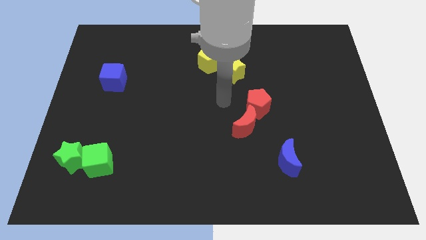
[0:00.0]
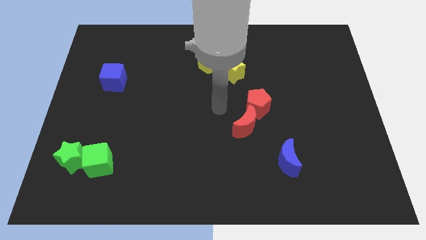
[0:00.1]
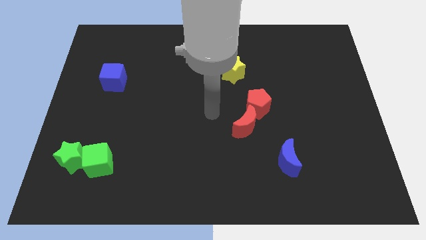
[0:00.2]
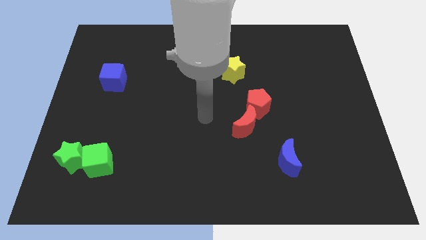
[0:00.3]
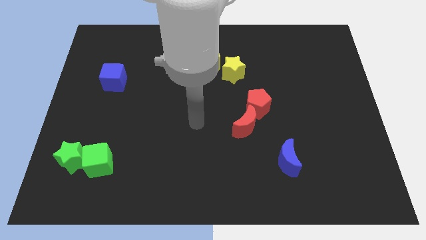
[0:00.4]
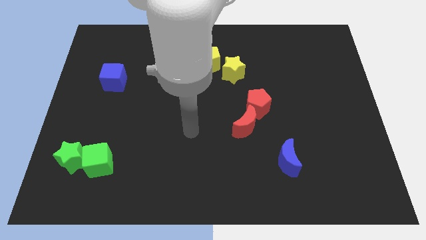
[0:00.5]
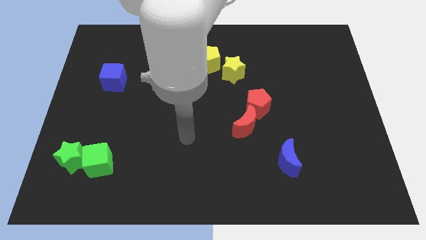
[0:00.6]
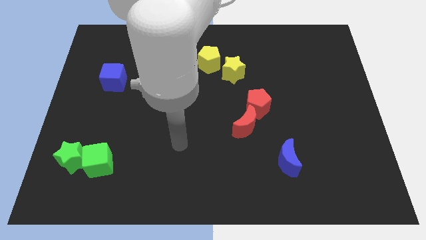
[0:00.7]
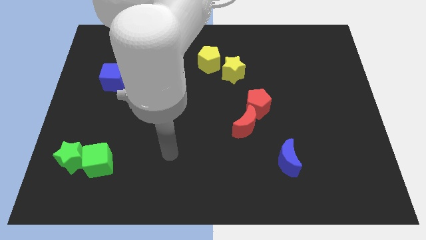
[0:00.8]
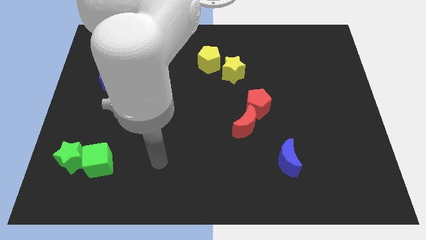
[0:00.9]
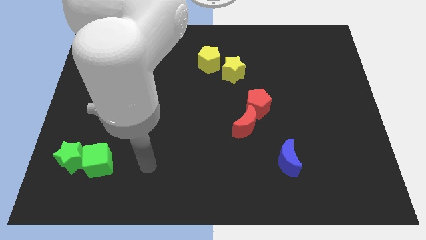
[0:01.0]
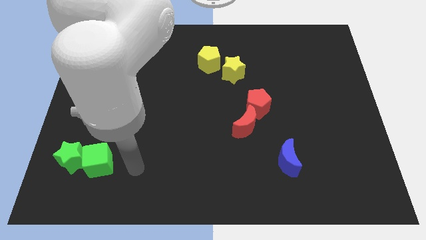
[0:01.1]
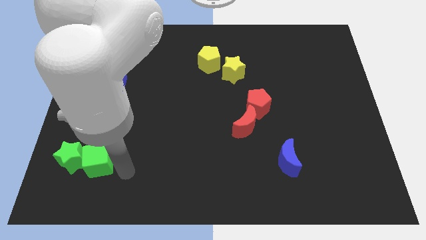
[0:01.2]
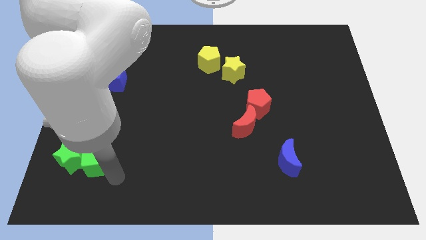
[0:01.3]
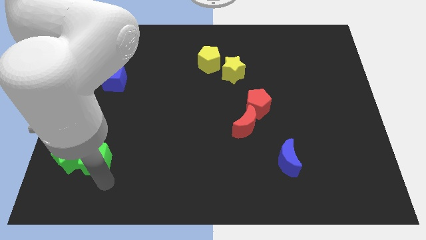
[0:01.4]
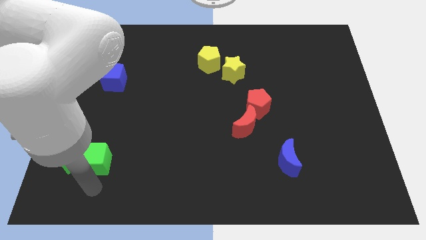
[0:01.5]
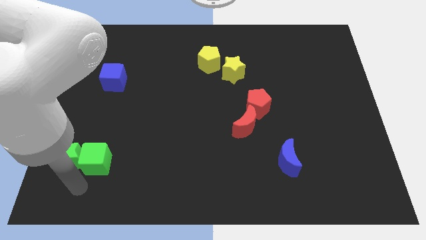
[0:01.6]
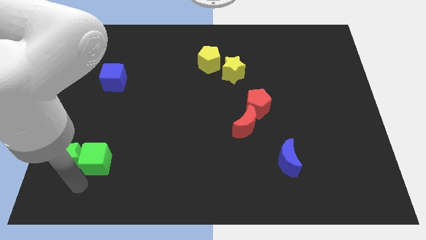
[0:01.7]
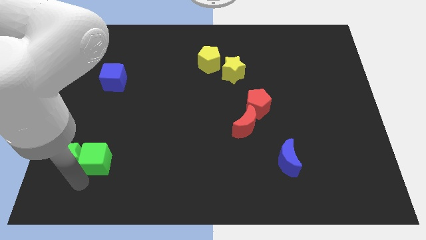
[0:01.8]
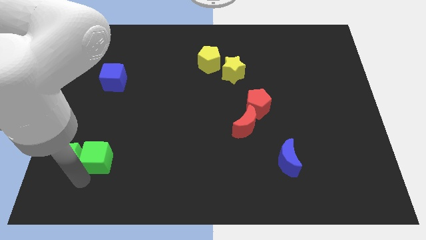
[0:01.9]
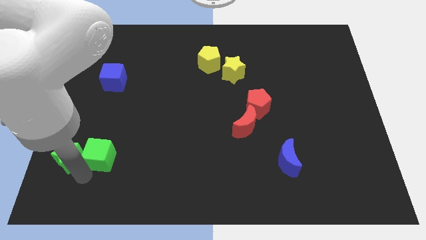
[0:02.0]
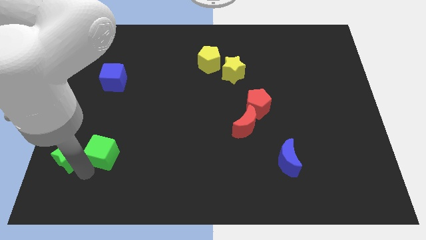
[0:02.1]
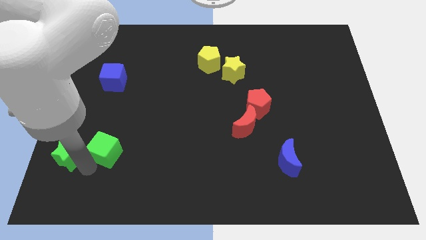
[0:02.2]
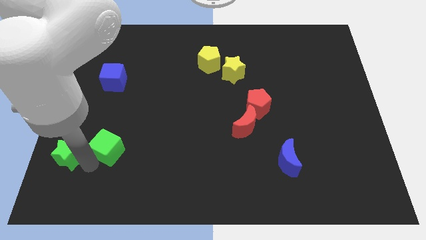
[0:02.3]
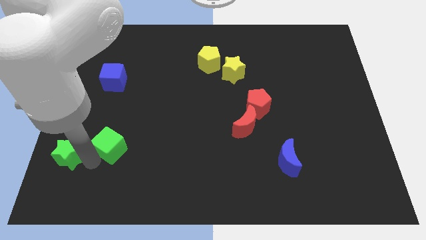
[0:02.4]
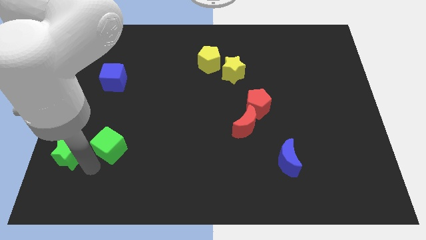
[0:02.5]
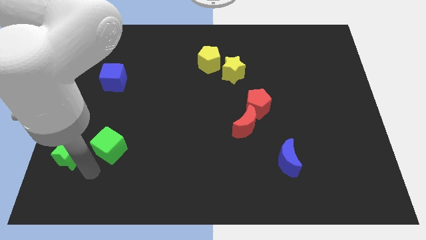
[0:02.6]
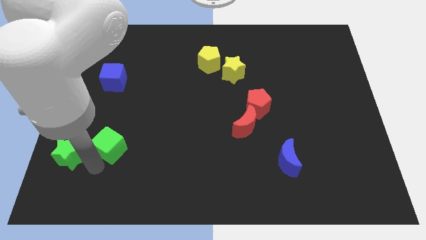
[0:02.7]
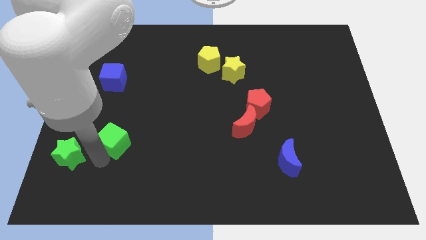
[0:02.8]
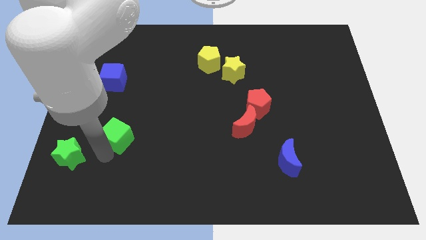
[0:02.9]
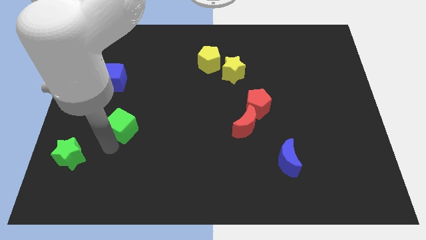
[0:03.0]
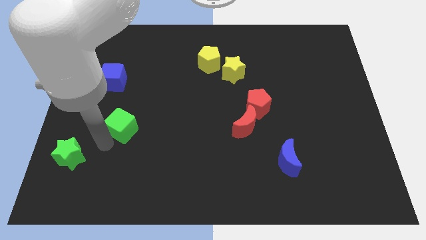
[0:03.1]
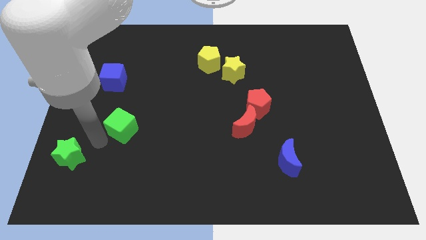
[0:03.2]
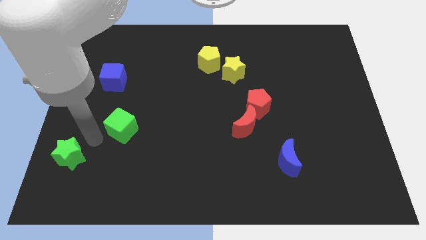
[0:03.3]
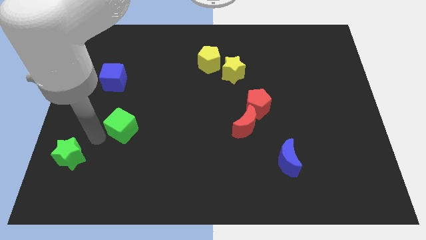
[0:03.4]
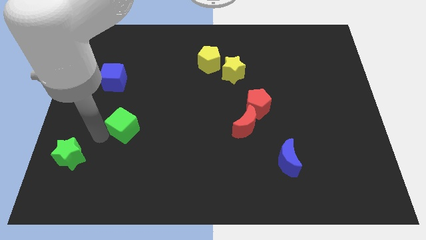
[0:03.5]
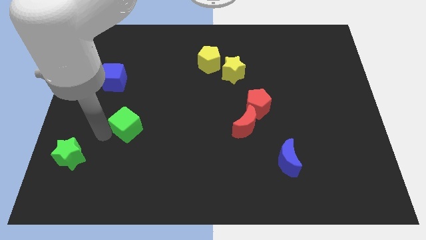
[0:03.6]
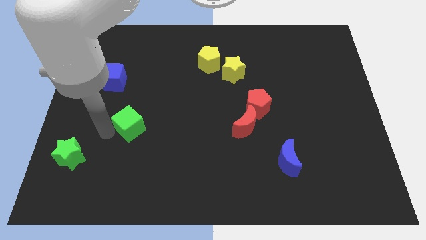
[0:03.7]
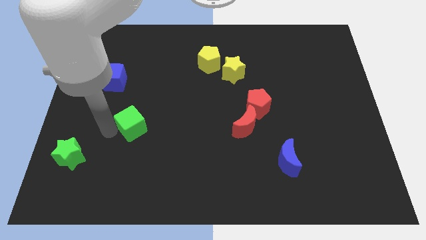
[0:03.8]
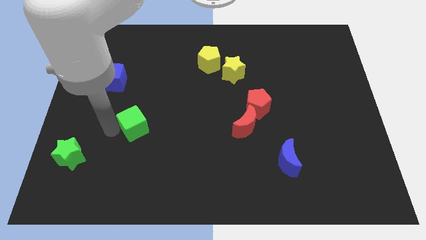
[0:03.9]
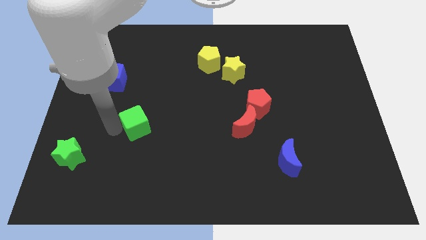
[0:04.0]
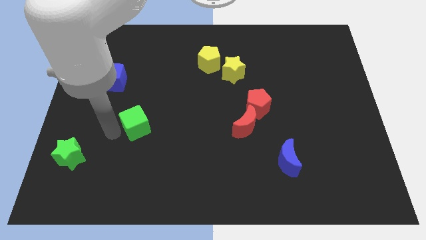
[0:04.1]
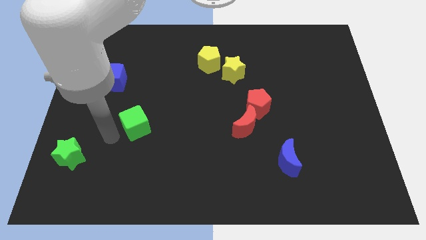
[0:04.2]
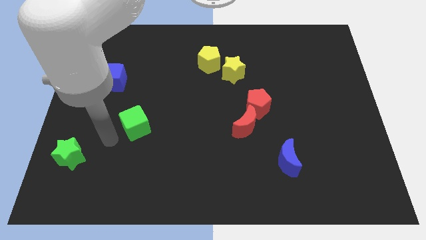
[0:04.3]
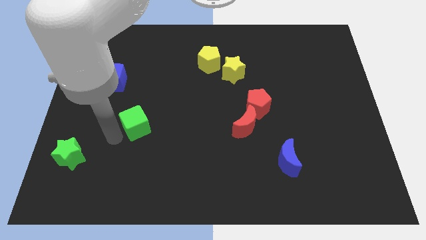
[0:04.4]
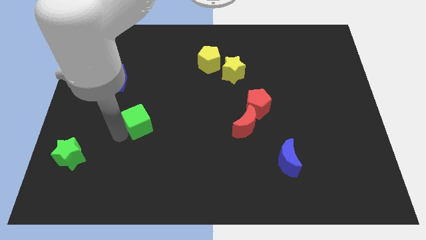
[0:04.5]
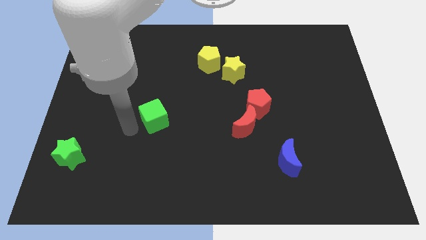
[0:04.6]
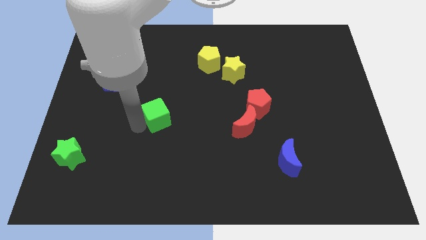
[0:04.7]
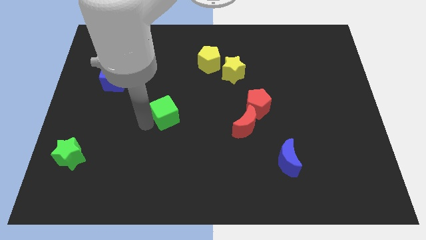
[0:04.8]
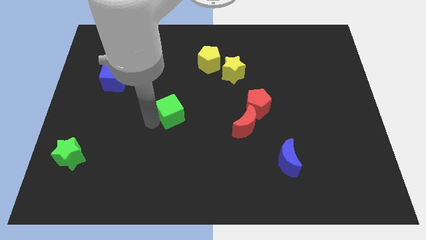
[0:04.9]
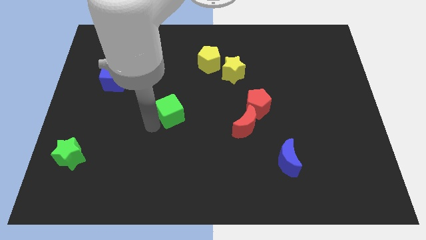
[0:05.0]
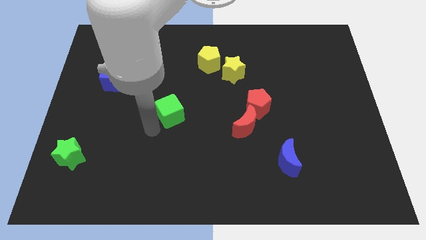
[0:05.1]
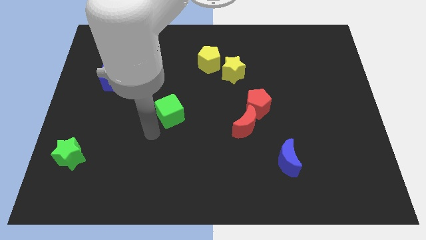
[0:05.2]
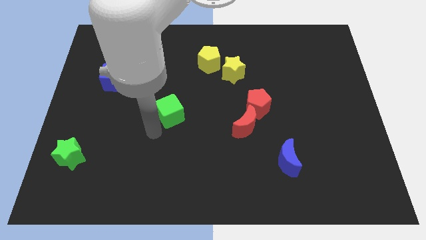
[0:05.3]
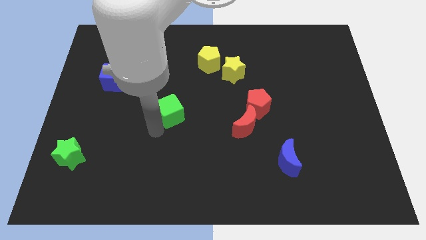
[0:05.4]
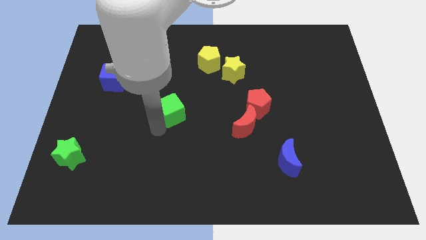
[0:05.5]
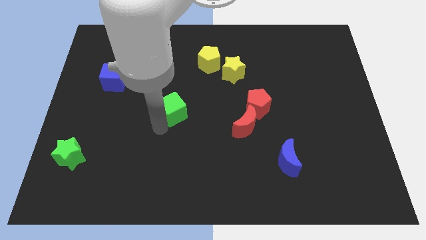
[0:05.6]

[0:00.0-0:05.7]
slide the green cube upwards and then to the right

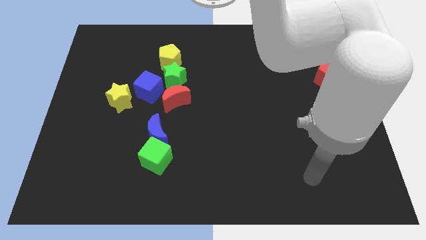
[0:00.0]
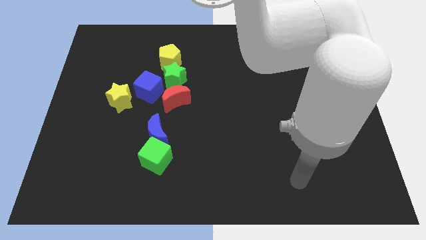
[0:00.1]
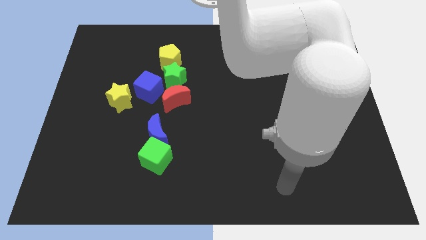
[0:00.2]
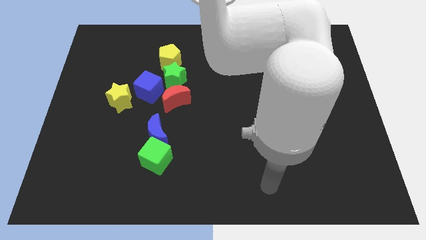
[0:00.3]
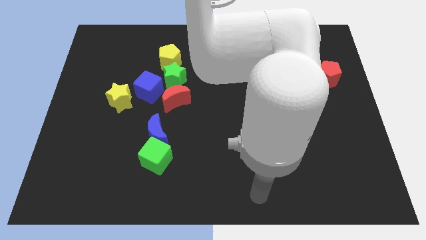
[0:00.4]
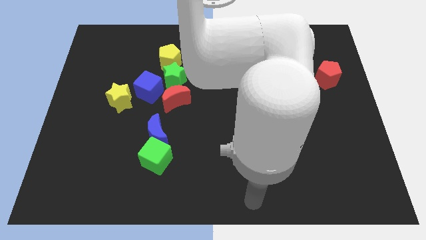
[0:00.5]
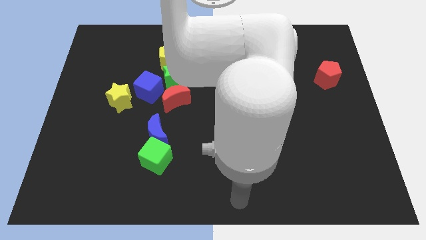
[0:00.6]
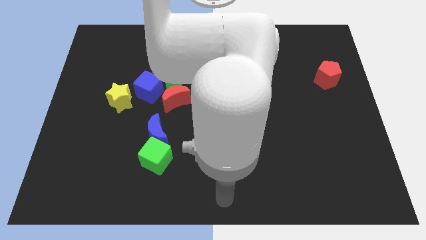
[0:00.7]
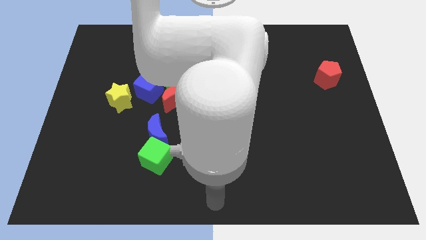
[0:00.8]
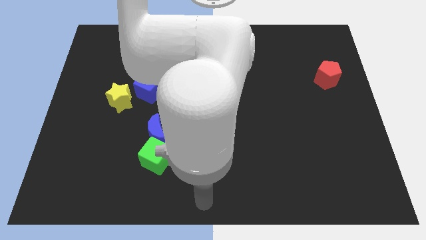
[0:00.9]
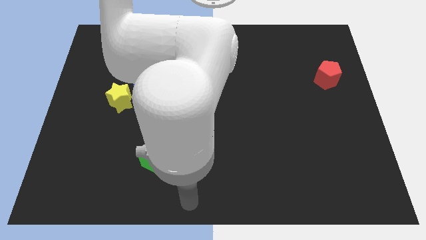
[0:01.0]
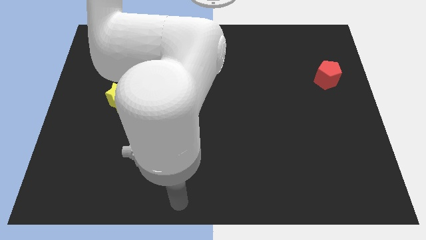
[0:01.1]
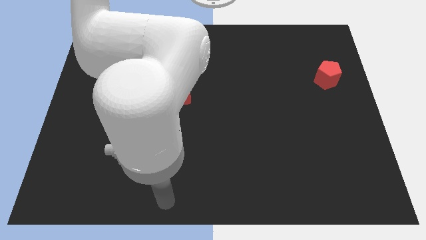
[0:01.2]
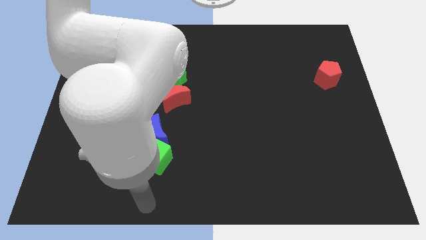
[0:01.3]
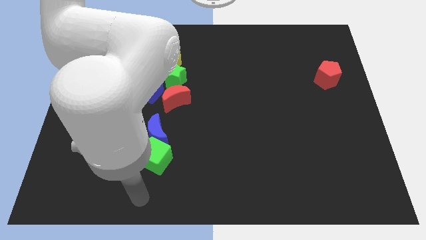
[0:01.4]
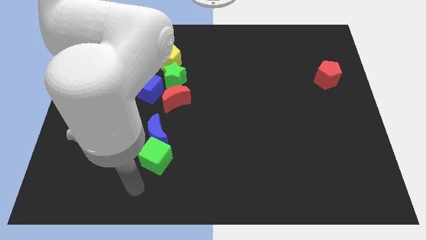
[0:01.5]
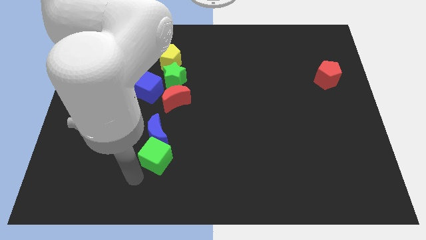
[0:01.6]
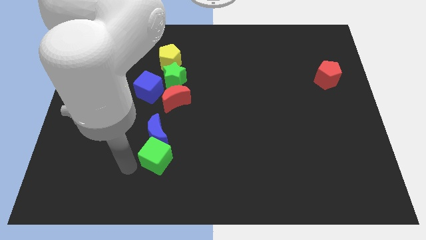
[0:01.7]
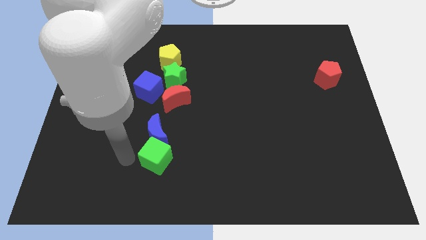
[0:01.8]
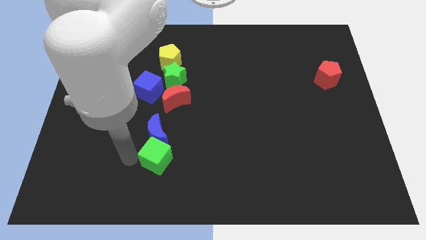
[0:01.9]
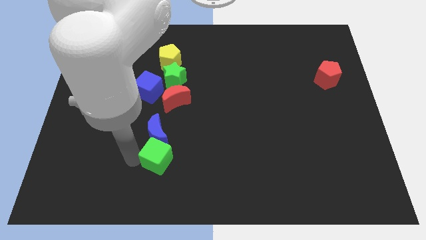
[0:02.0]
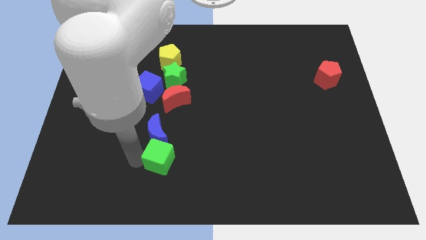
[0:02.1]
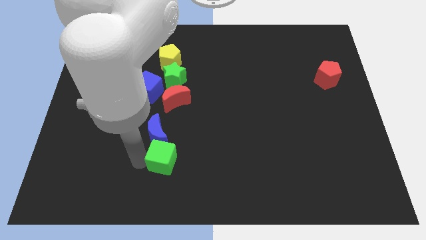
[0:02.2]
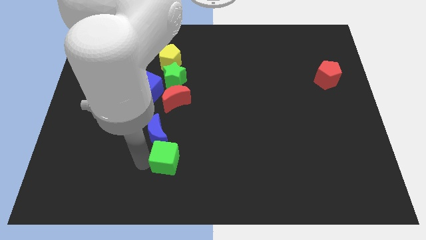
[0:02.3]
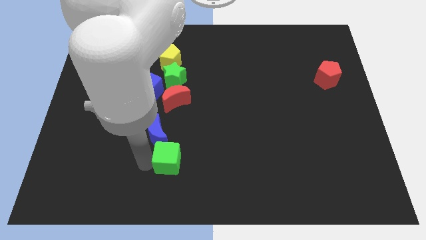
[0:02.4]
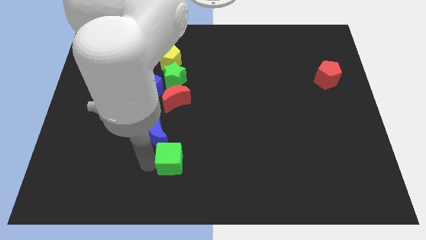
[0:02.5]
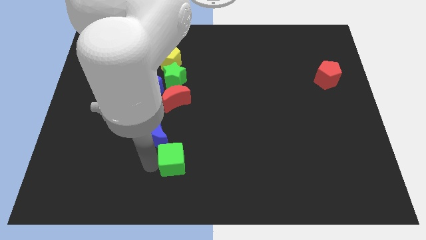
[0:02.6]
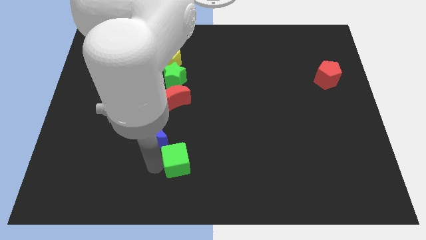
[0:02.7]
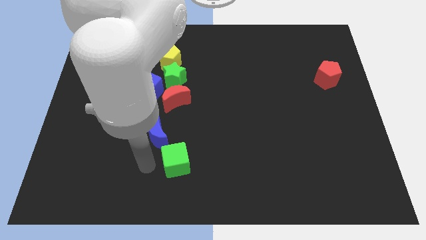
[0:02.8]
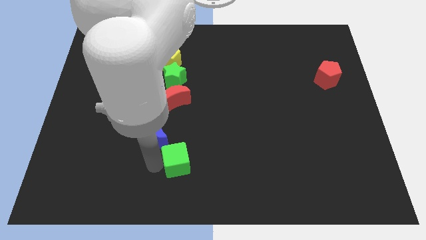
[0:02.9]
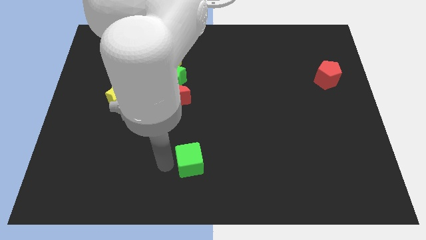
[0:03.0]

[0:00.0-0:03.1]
push the green cube somewhat to the right
